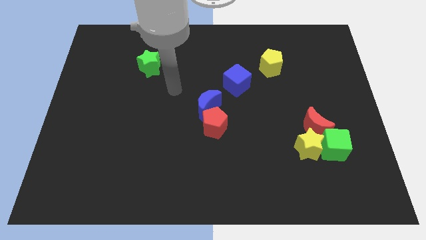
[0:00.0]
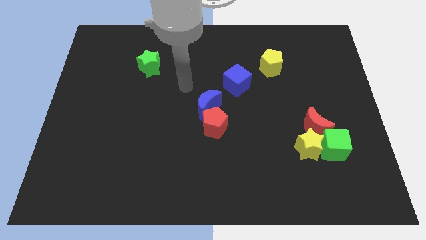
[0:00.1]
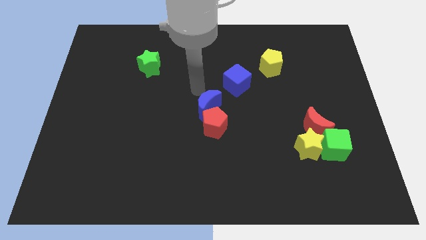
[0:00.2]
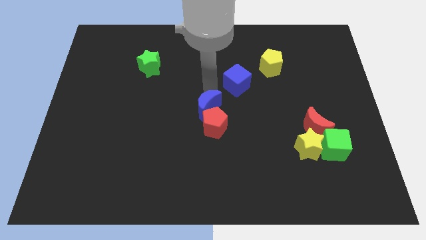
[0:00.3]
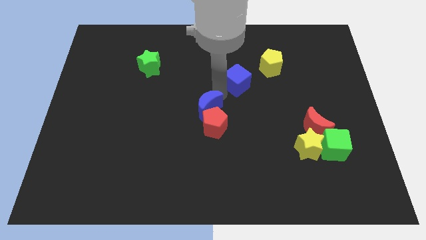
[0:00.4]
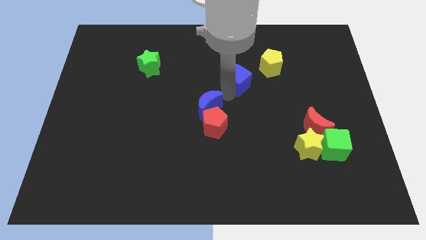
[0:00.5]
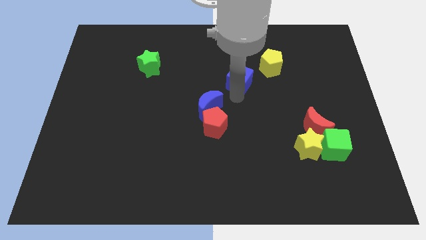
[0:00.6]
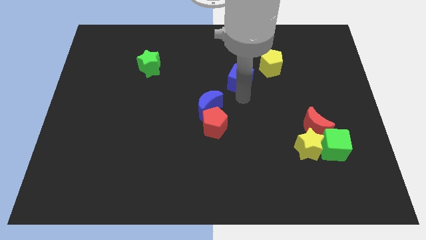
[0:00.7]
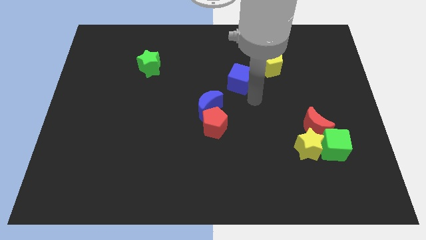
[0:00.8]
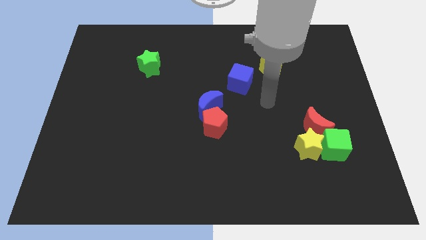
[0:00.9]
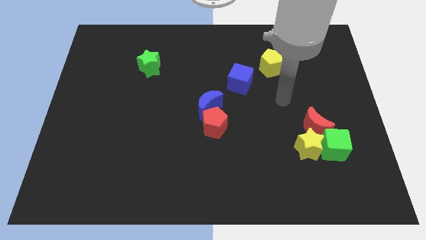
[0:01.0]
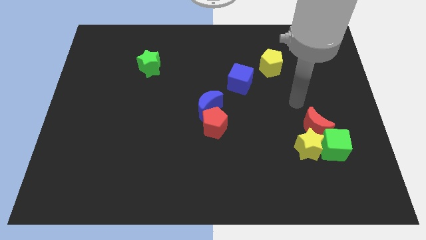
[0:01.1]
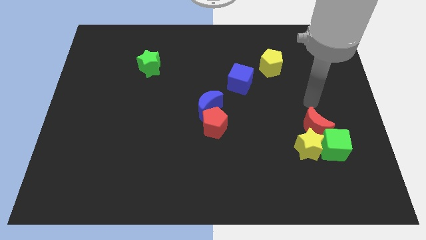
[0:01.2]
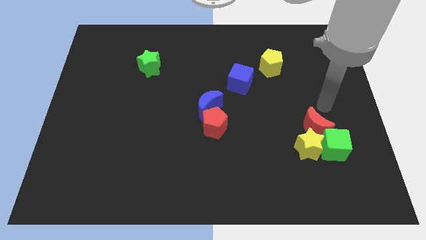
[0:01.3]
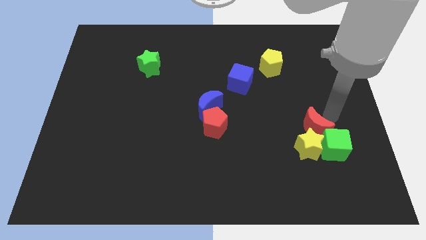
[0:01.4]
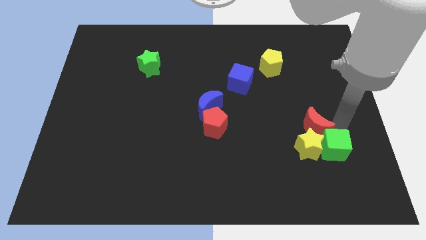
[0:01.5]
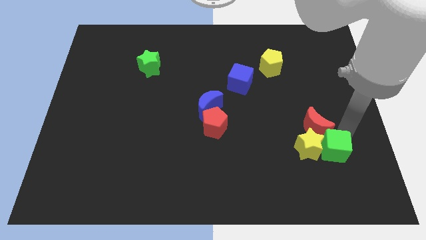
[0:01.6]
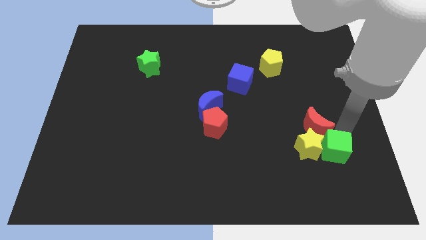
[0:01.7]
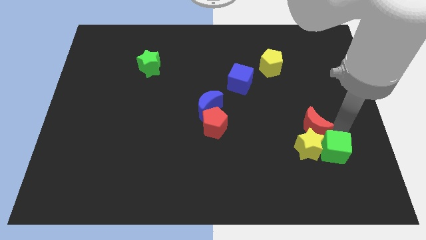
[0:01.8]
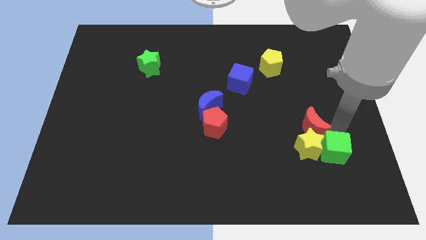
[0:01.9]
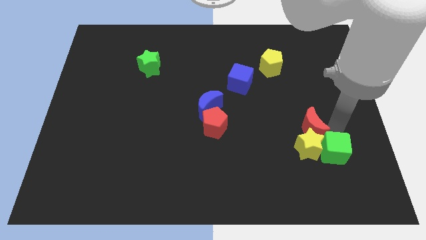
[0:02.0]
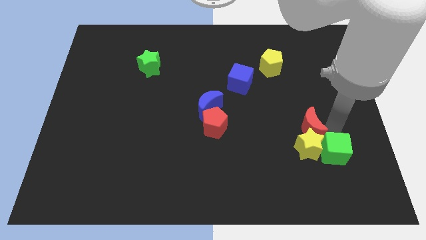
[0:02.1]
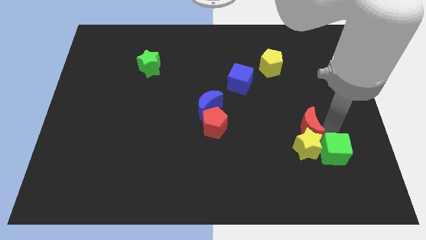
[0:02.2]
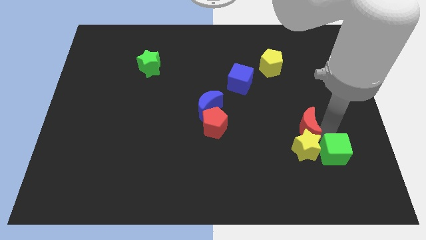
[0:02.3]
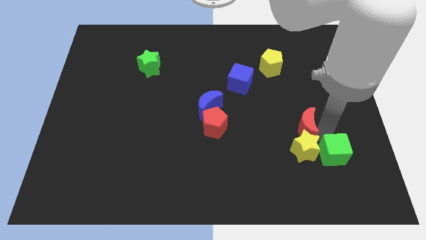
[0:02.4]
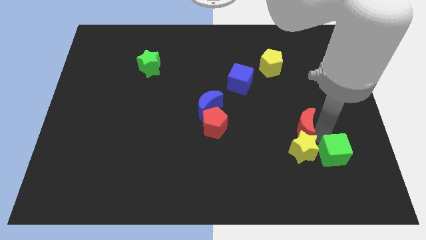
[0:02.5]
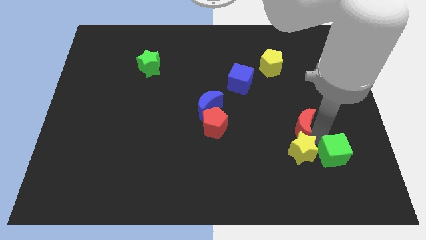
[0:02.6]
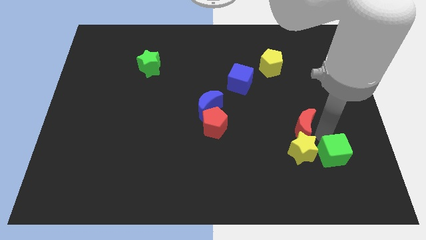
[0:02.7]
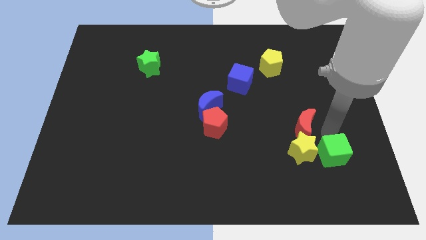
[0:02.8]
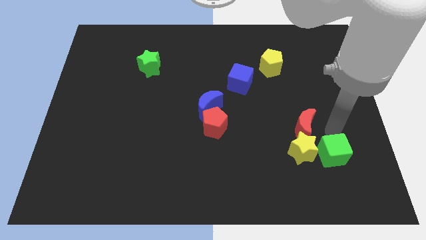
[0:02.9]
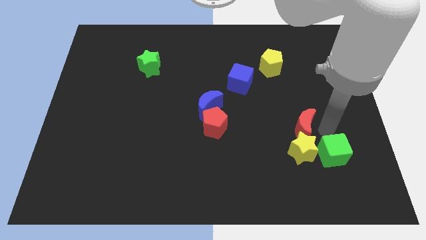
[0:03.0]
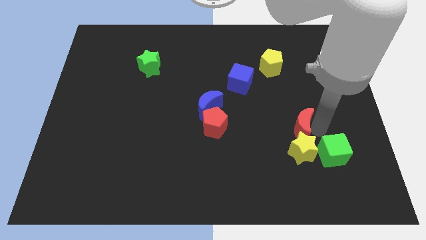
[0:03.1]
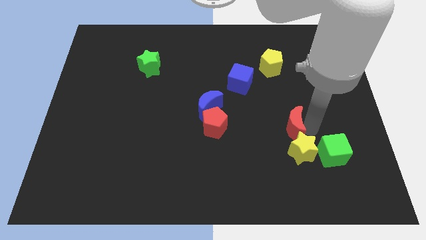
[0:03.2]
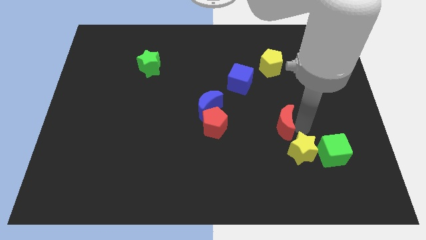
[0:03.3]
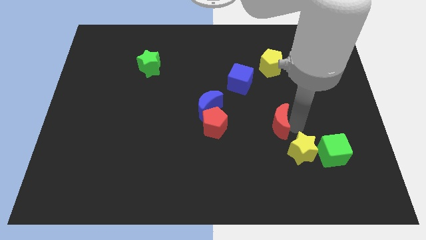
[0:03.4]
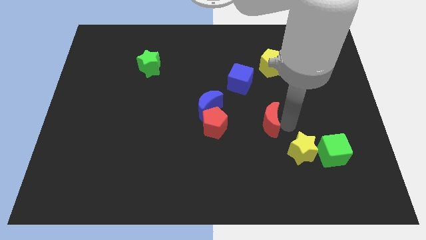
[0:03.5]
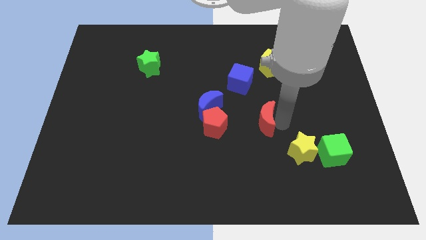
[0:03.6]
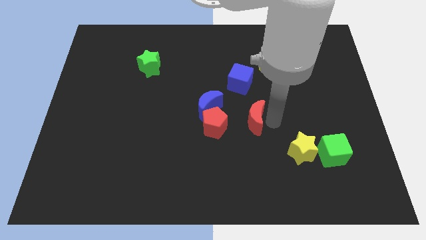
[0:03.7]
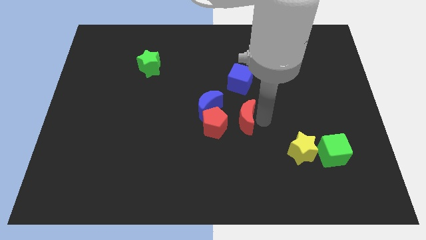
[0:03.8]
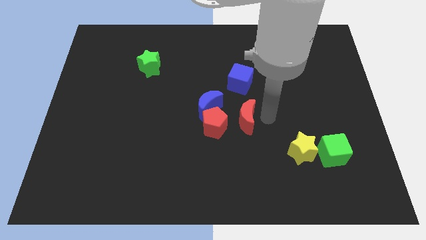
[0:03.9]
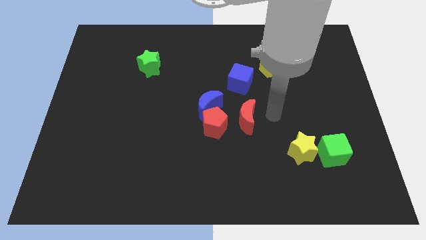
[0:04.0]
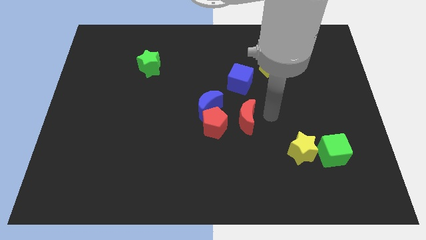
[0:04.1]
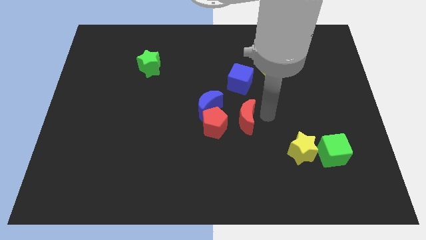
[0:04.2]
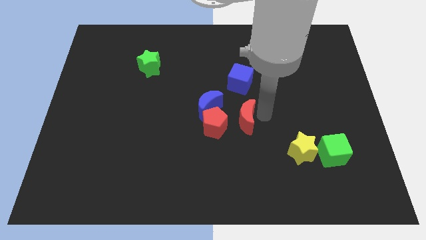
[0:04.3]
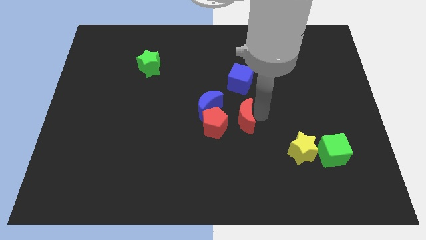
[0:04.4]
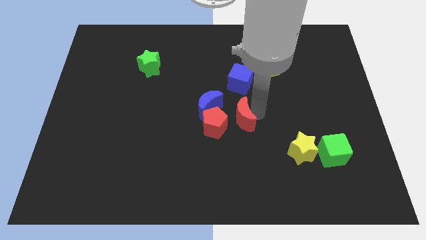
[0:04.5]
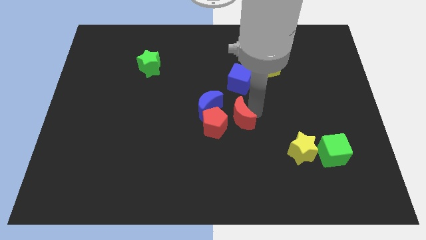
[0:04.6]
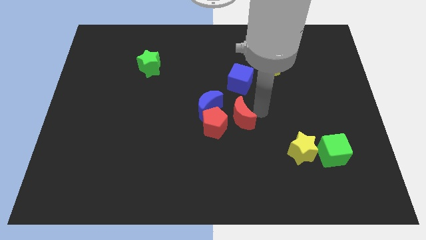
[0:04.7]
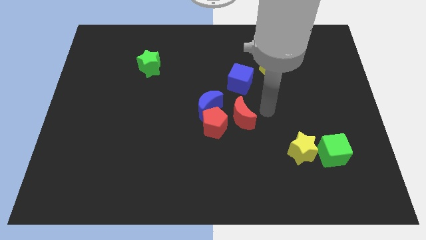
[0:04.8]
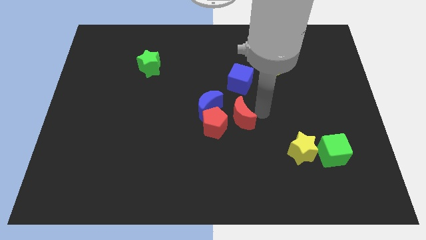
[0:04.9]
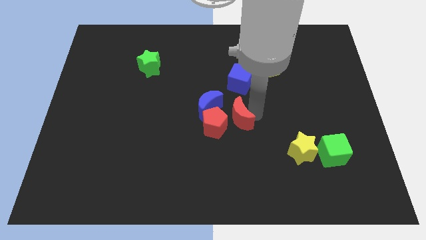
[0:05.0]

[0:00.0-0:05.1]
slide the red moon close to the red pentagon

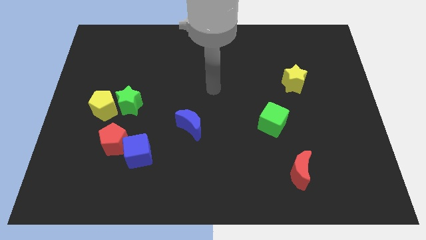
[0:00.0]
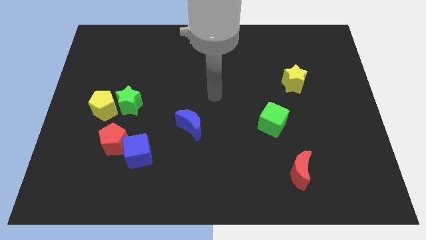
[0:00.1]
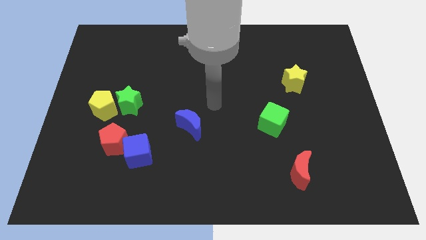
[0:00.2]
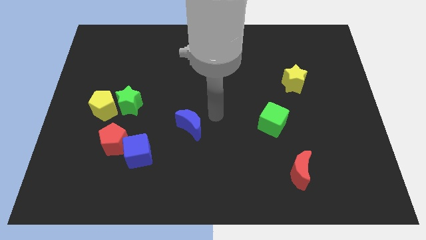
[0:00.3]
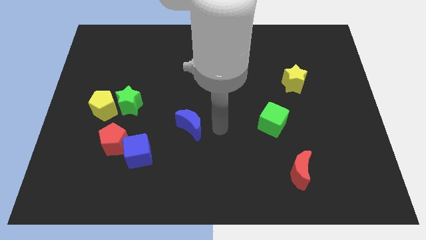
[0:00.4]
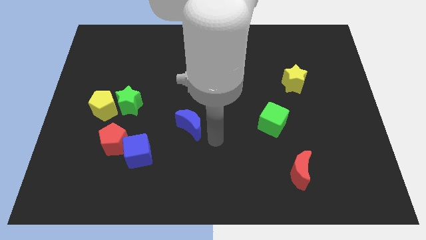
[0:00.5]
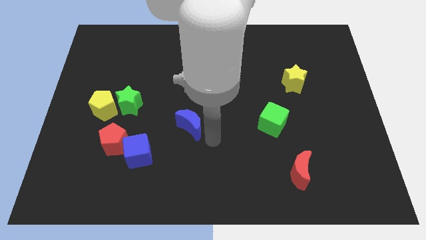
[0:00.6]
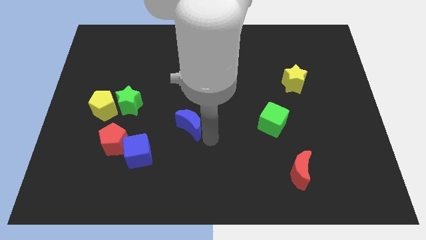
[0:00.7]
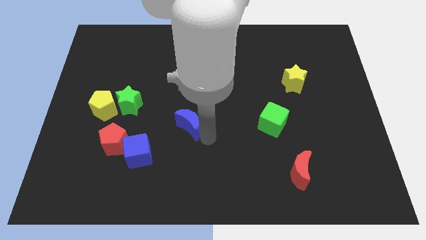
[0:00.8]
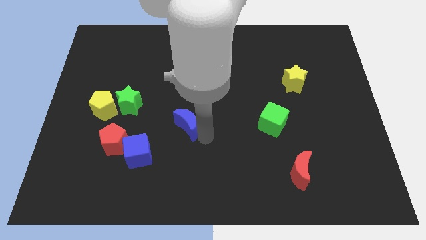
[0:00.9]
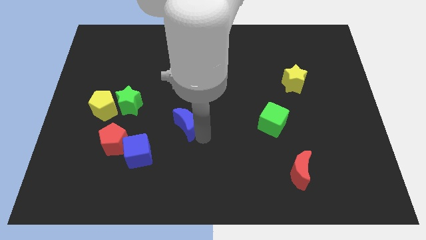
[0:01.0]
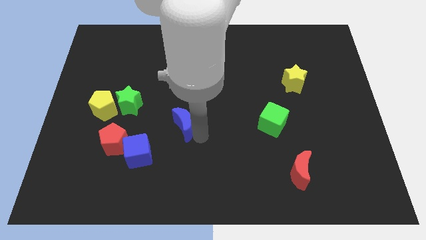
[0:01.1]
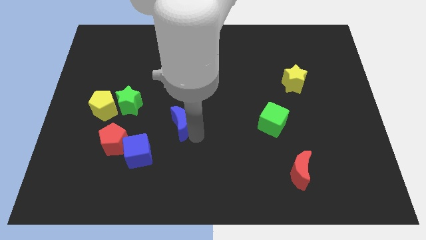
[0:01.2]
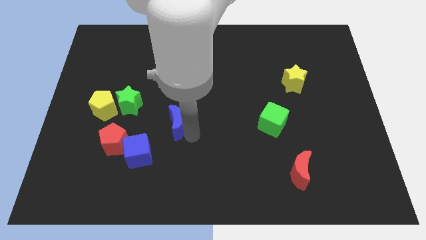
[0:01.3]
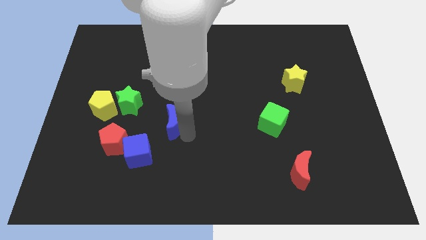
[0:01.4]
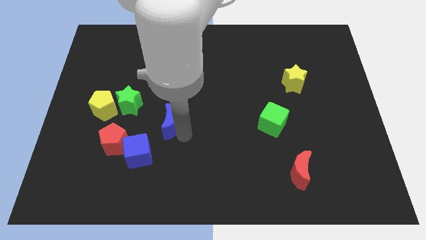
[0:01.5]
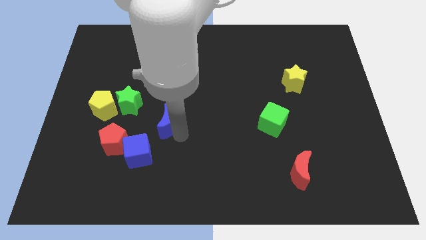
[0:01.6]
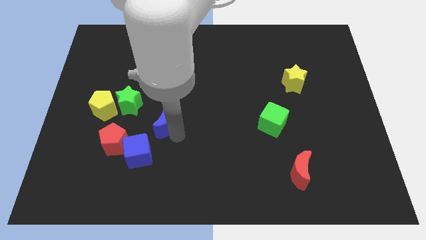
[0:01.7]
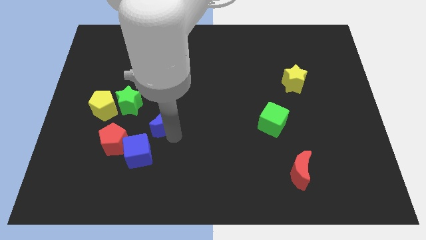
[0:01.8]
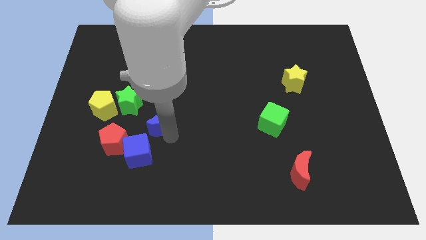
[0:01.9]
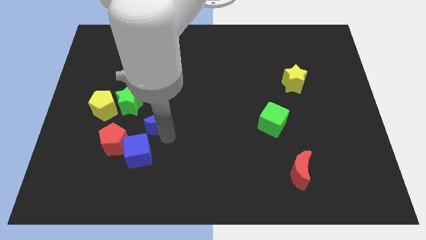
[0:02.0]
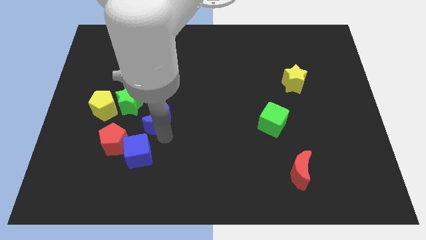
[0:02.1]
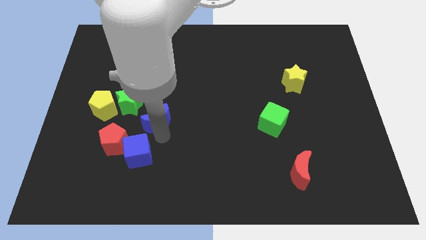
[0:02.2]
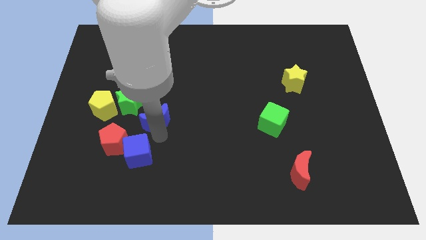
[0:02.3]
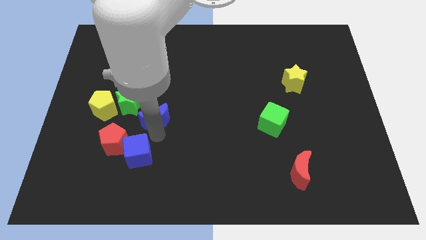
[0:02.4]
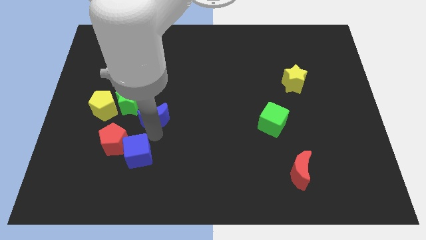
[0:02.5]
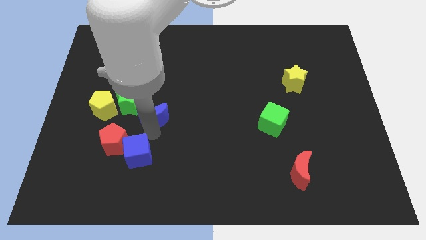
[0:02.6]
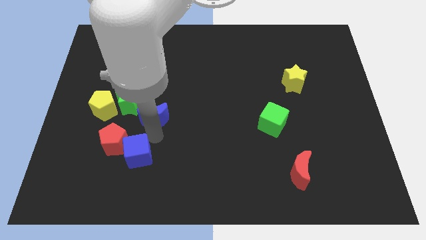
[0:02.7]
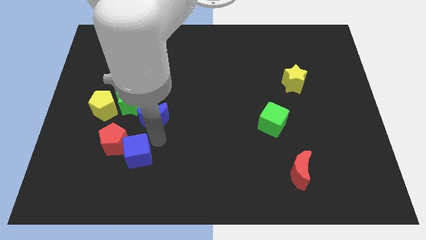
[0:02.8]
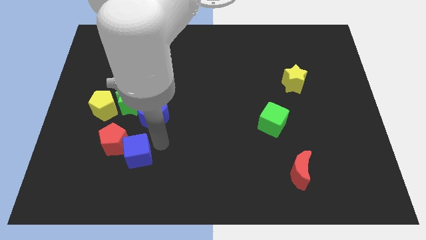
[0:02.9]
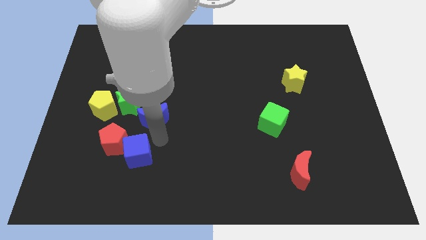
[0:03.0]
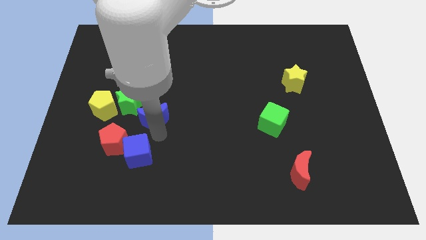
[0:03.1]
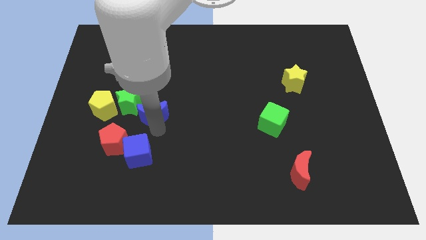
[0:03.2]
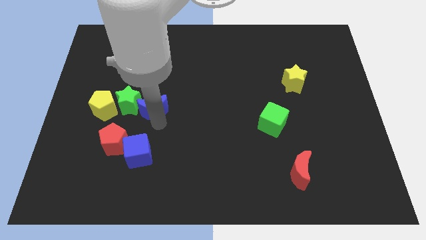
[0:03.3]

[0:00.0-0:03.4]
move the blue moon towards the green star
